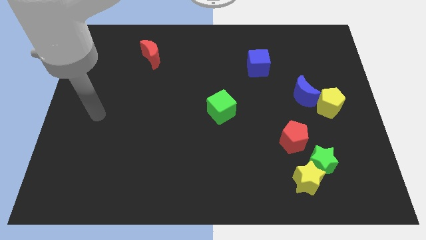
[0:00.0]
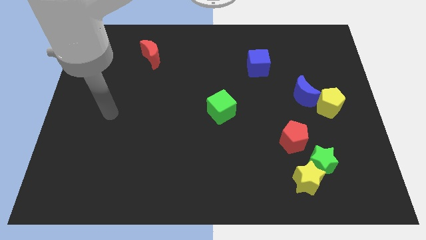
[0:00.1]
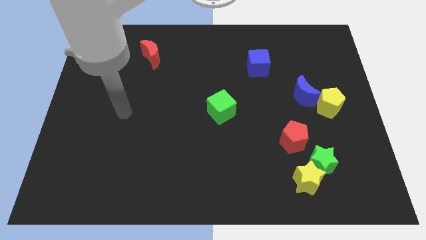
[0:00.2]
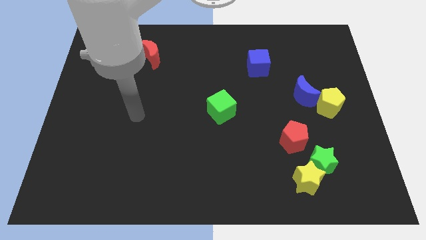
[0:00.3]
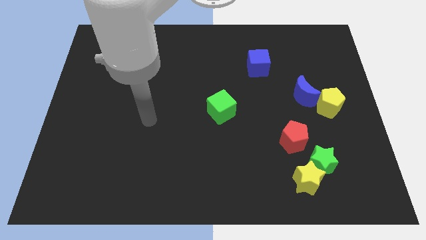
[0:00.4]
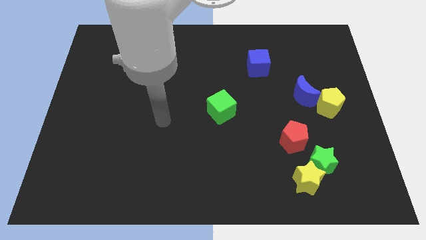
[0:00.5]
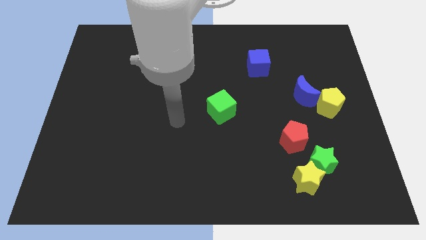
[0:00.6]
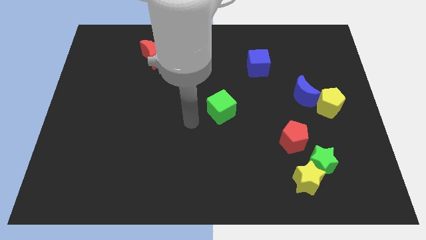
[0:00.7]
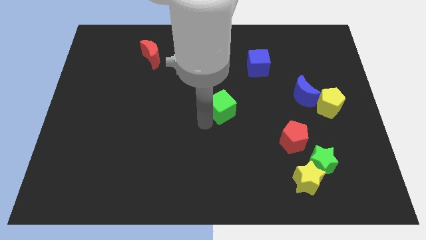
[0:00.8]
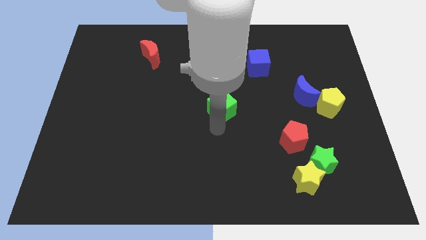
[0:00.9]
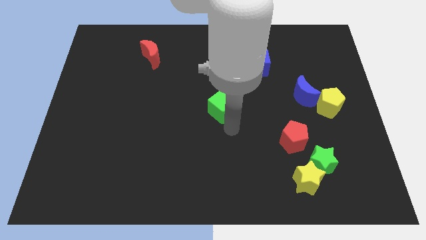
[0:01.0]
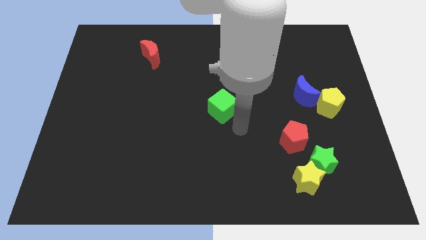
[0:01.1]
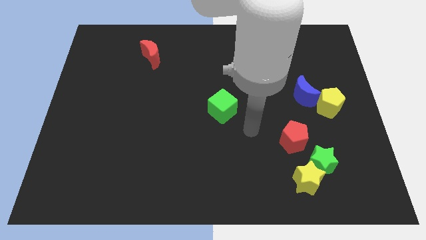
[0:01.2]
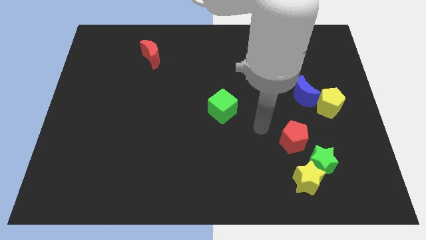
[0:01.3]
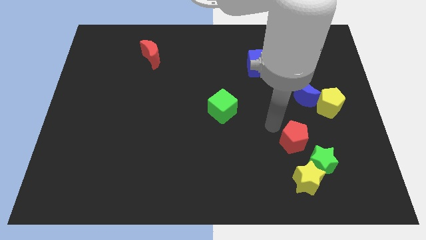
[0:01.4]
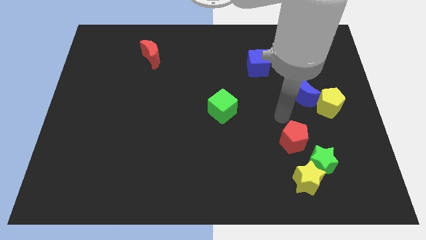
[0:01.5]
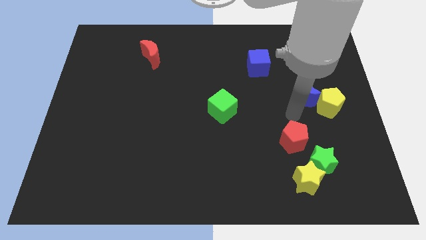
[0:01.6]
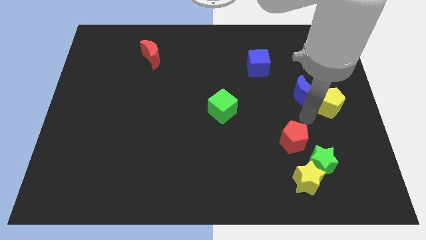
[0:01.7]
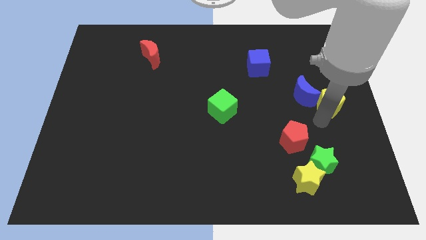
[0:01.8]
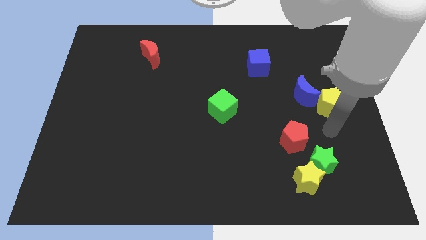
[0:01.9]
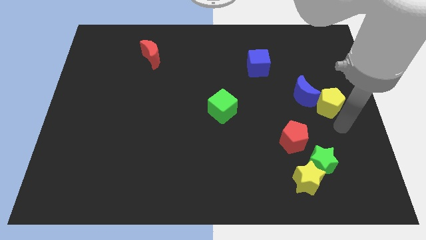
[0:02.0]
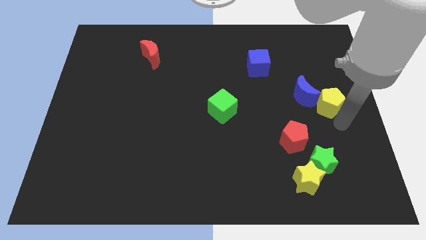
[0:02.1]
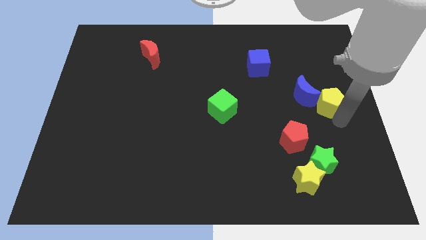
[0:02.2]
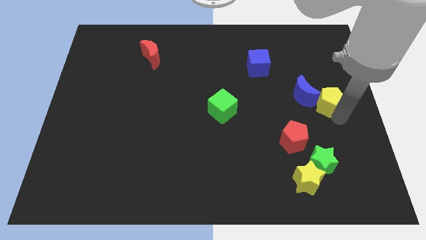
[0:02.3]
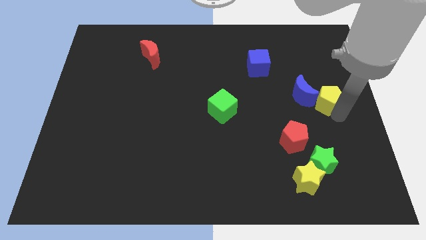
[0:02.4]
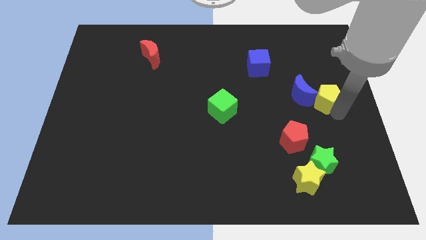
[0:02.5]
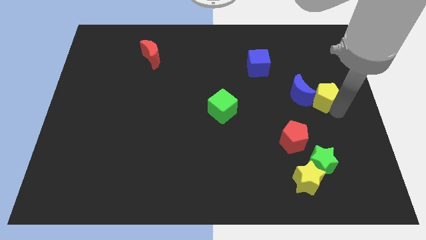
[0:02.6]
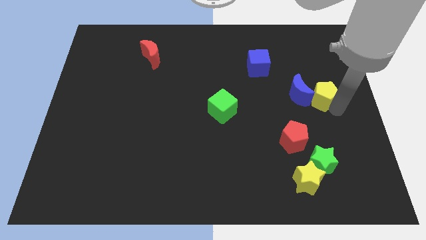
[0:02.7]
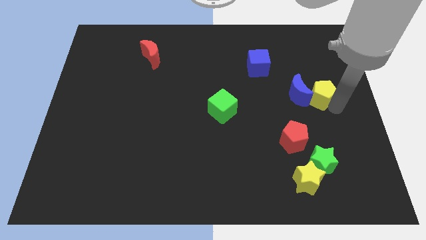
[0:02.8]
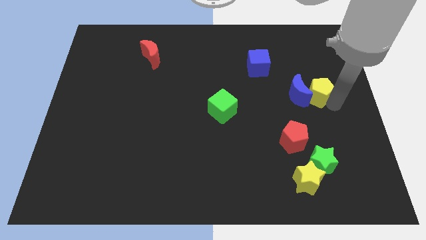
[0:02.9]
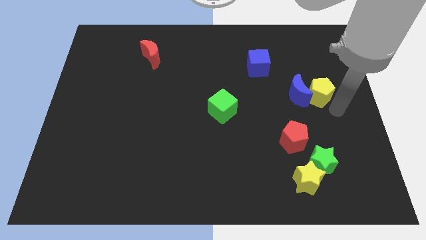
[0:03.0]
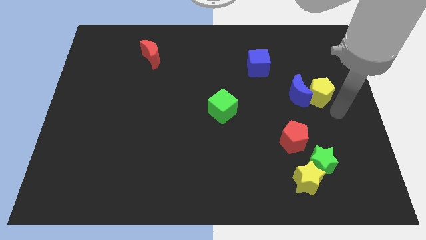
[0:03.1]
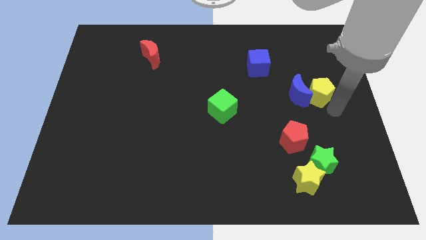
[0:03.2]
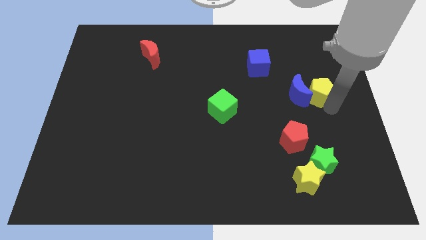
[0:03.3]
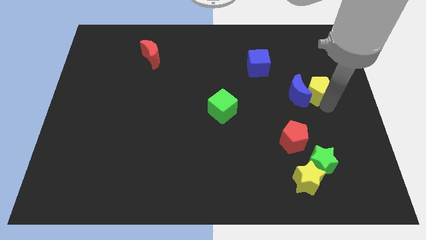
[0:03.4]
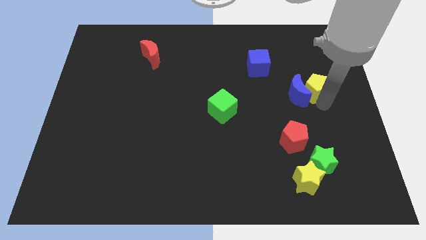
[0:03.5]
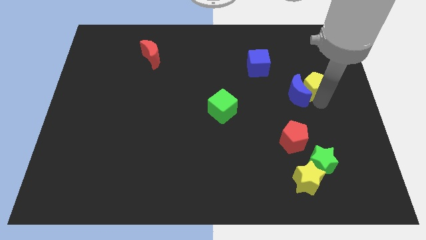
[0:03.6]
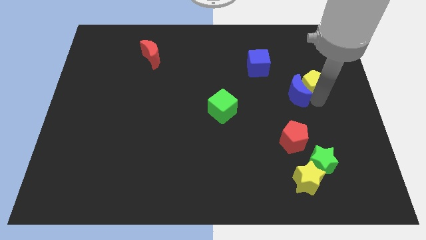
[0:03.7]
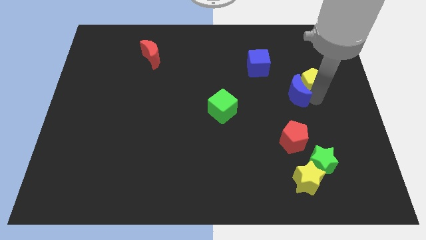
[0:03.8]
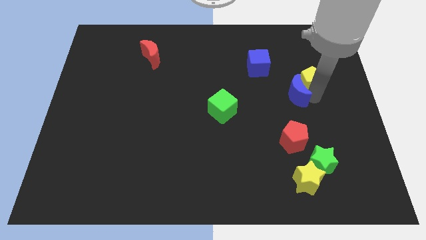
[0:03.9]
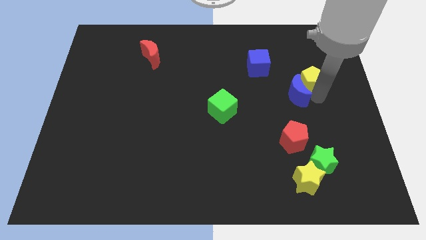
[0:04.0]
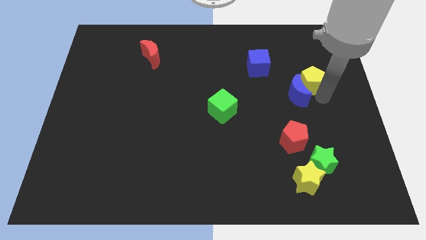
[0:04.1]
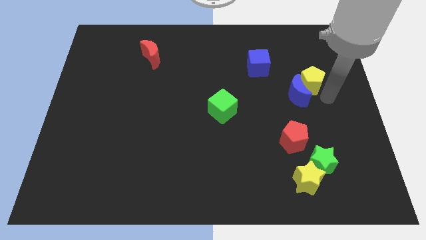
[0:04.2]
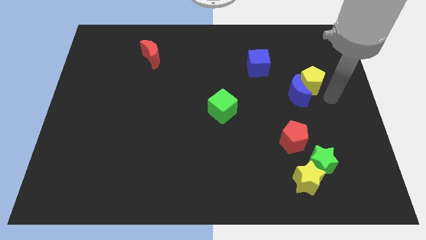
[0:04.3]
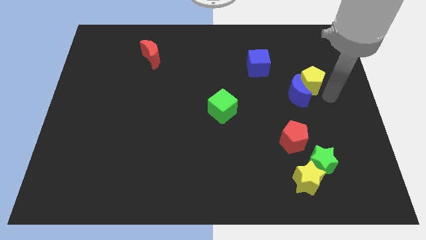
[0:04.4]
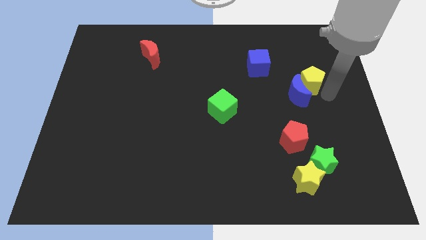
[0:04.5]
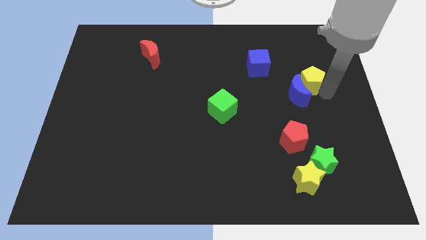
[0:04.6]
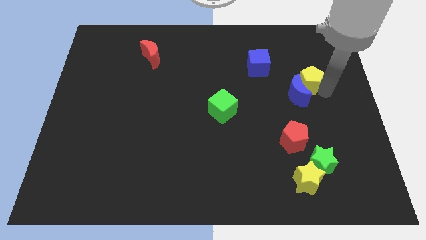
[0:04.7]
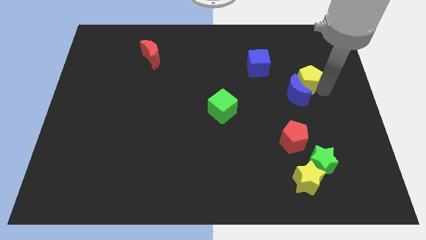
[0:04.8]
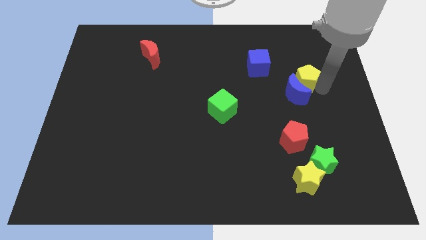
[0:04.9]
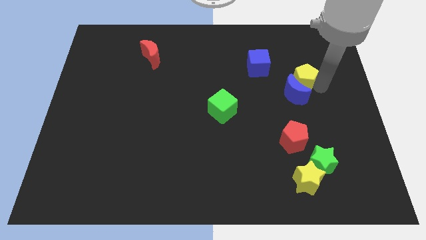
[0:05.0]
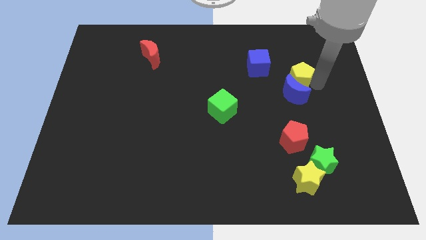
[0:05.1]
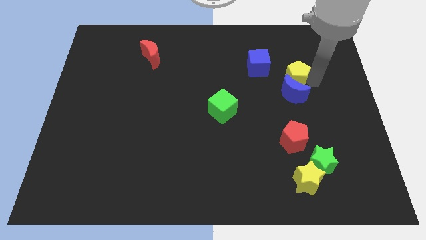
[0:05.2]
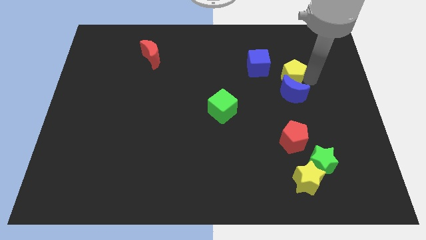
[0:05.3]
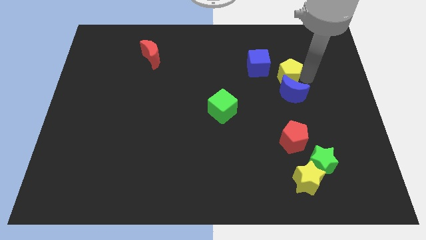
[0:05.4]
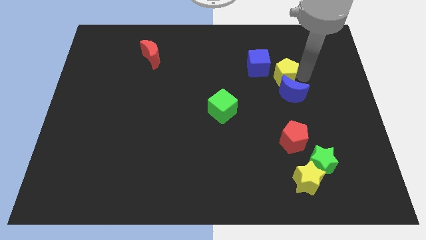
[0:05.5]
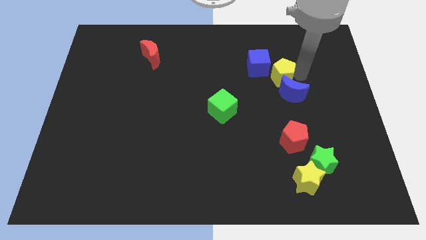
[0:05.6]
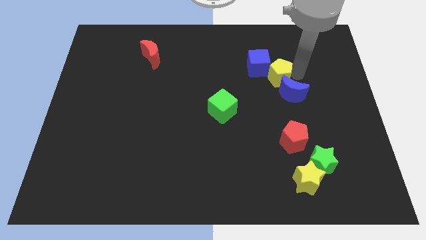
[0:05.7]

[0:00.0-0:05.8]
push the yellow pentagon towards the blue cube

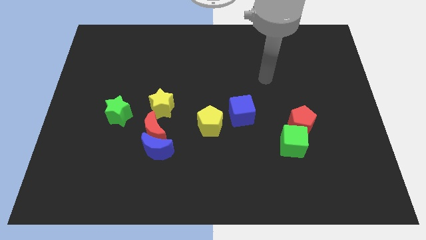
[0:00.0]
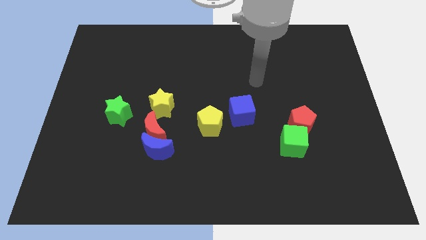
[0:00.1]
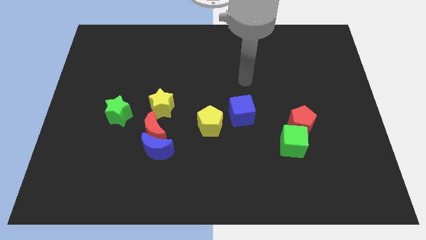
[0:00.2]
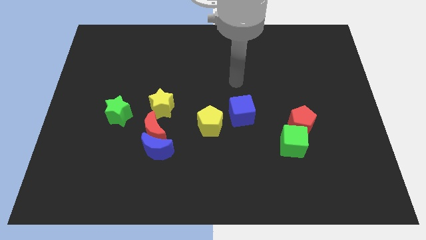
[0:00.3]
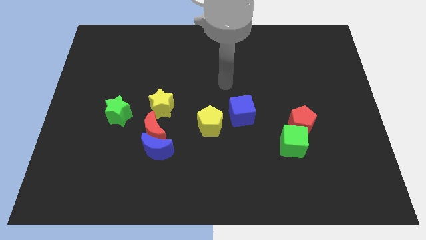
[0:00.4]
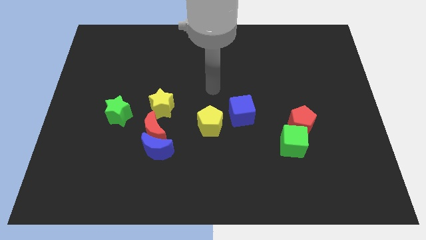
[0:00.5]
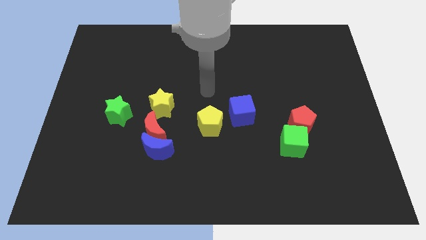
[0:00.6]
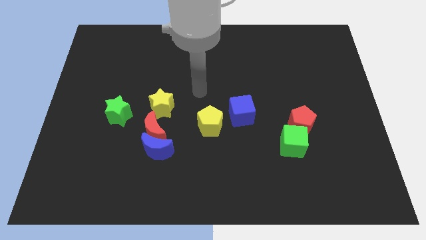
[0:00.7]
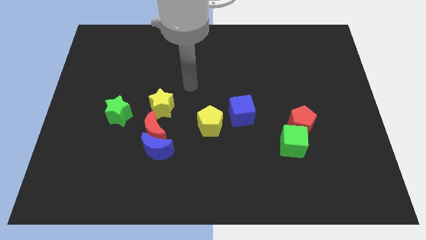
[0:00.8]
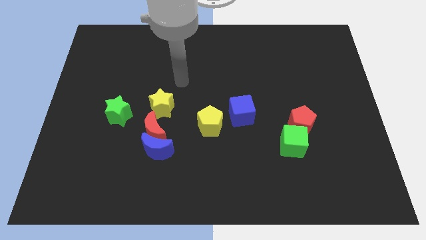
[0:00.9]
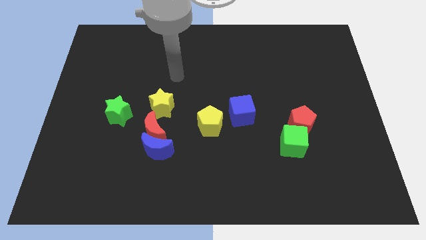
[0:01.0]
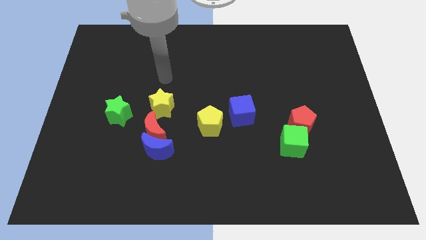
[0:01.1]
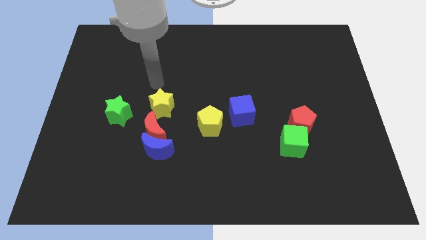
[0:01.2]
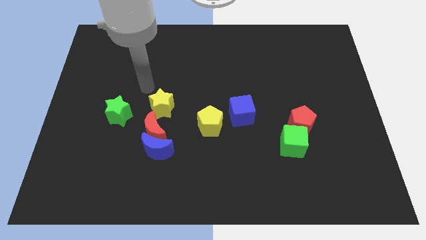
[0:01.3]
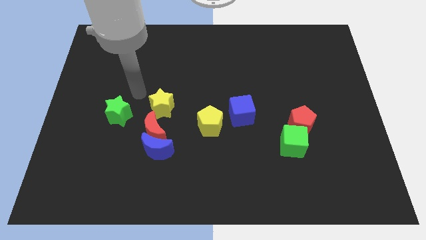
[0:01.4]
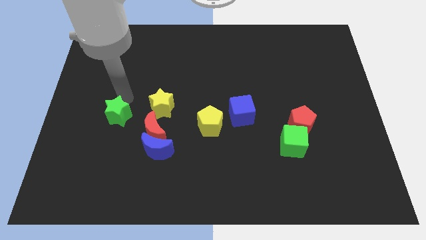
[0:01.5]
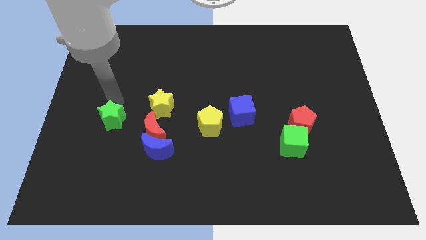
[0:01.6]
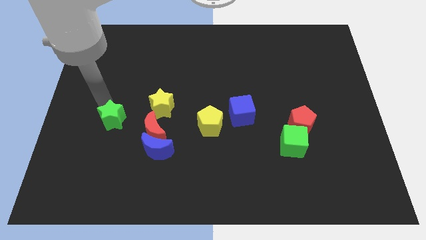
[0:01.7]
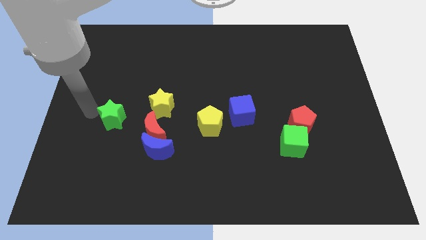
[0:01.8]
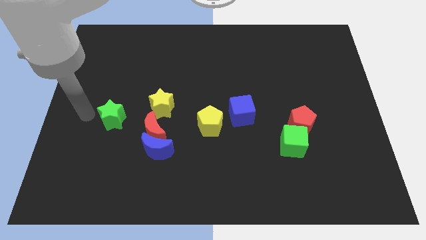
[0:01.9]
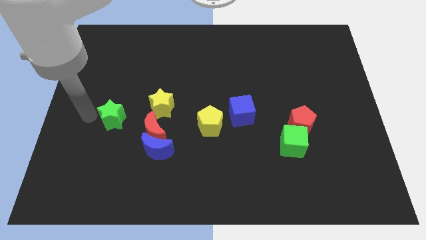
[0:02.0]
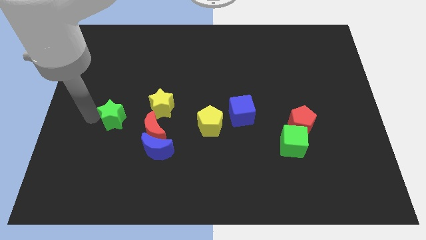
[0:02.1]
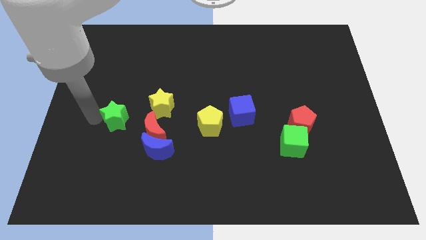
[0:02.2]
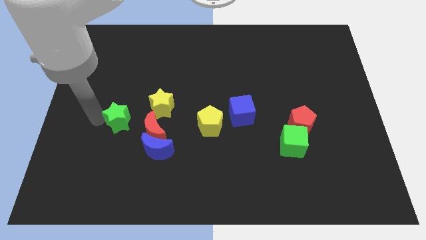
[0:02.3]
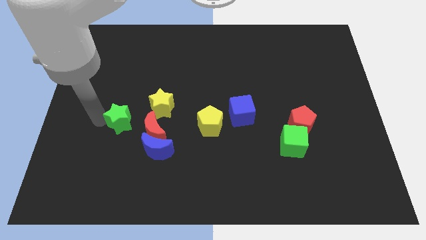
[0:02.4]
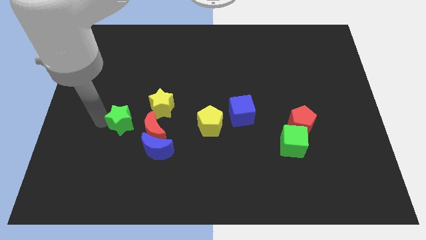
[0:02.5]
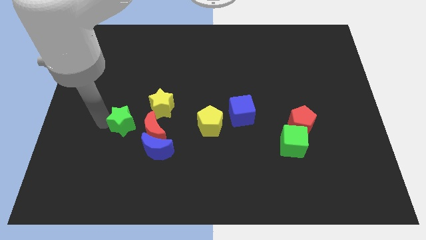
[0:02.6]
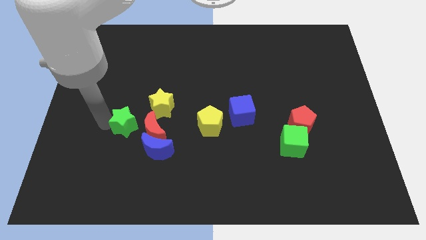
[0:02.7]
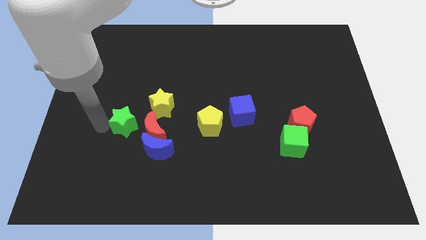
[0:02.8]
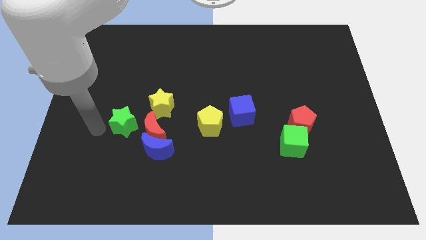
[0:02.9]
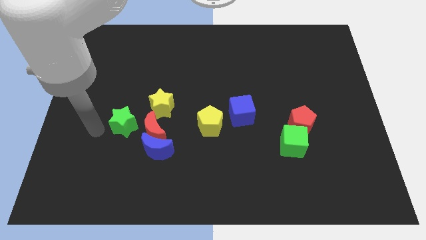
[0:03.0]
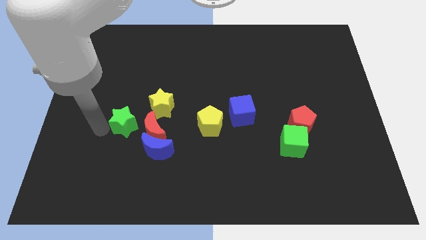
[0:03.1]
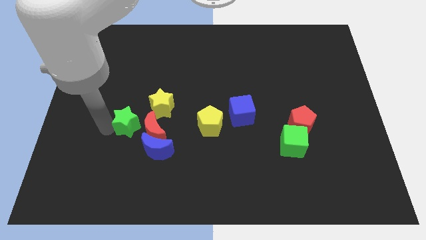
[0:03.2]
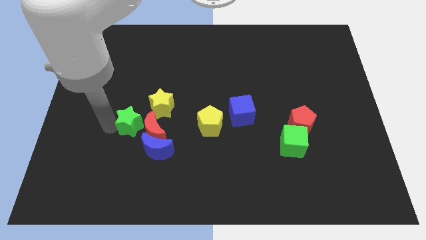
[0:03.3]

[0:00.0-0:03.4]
move the green star next to the red moon
